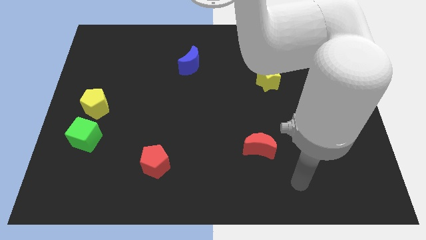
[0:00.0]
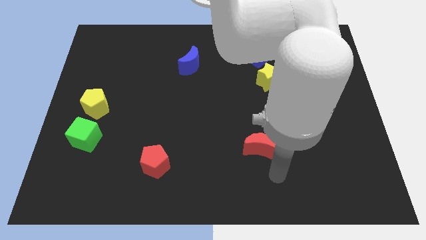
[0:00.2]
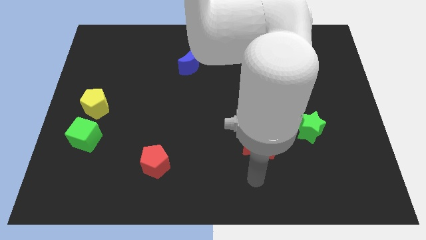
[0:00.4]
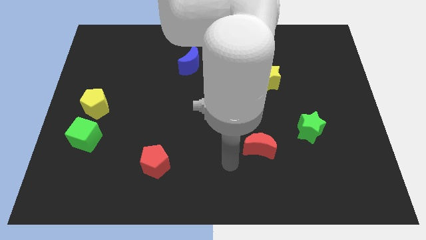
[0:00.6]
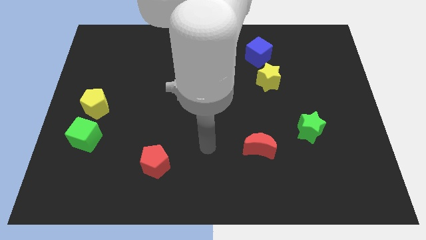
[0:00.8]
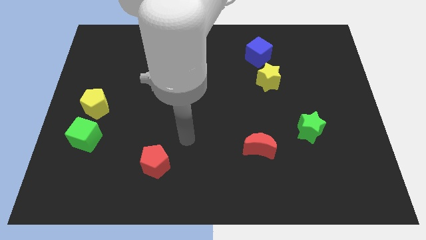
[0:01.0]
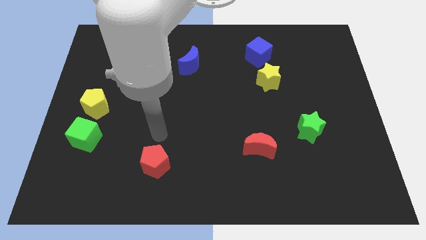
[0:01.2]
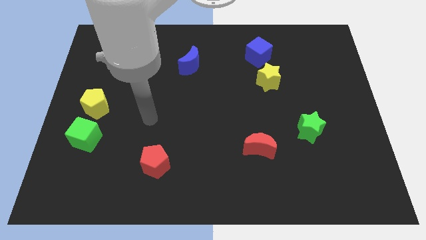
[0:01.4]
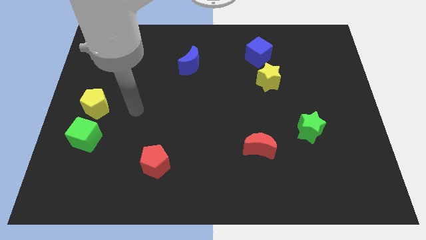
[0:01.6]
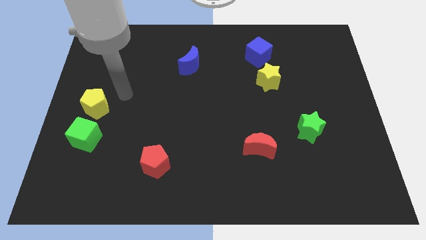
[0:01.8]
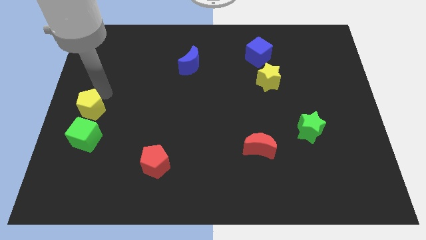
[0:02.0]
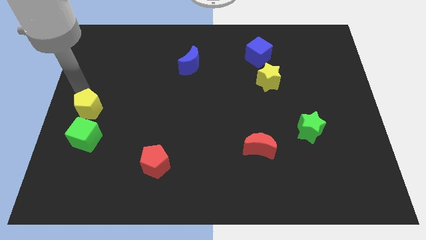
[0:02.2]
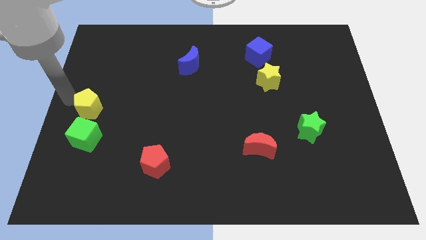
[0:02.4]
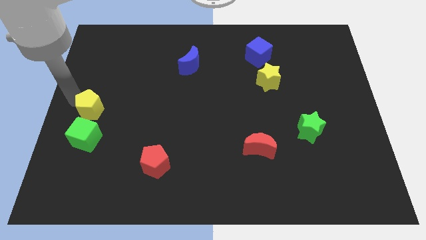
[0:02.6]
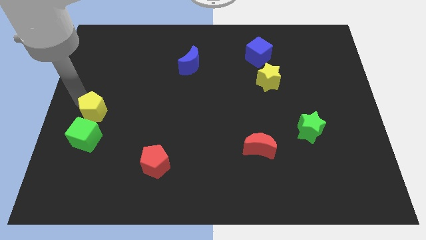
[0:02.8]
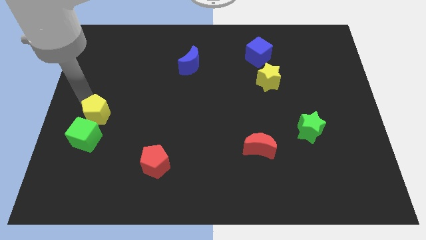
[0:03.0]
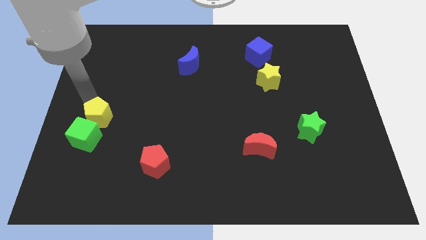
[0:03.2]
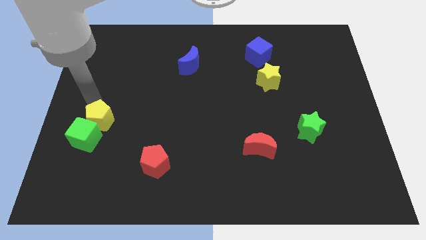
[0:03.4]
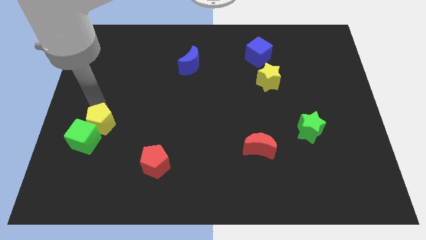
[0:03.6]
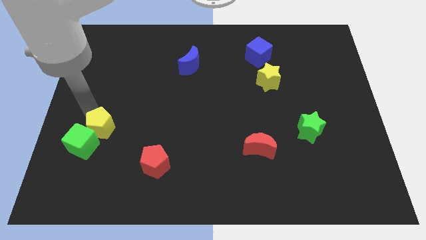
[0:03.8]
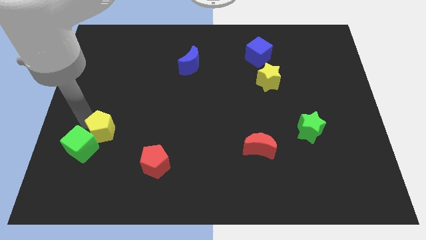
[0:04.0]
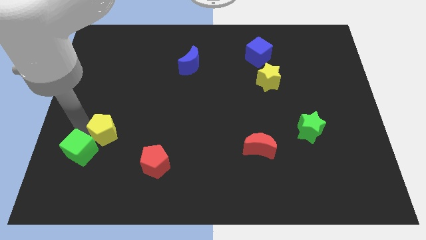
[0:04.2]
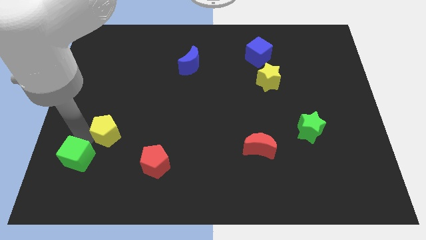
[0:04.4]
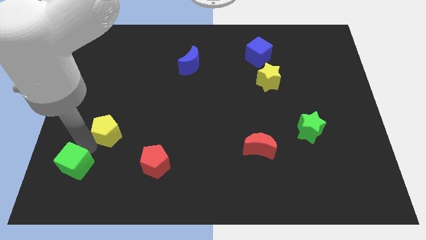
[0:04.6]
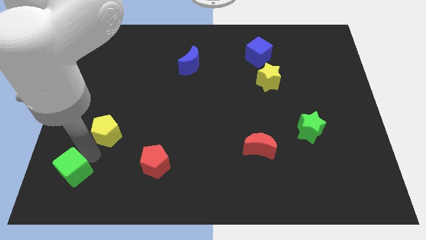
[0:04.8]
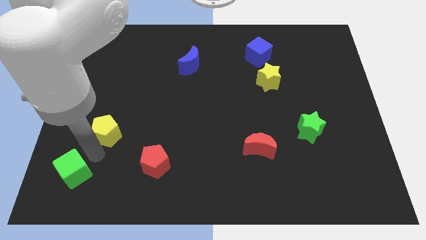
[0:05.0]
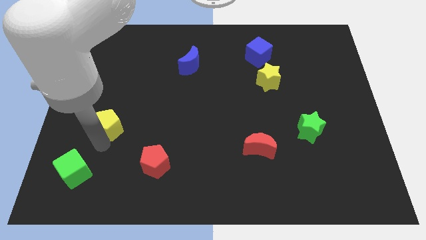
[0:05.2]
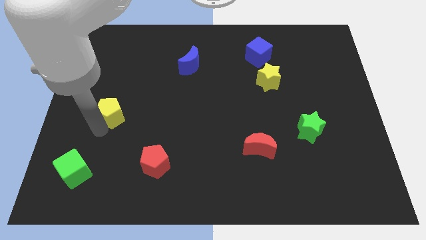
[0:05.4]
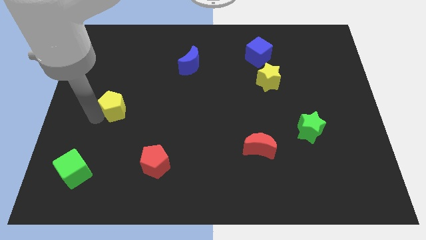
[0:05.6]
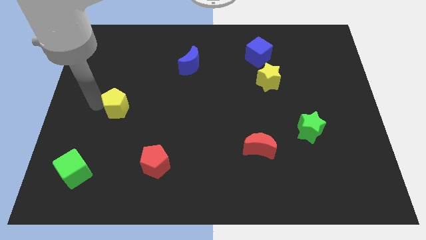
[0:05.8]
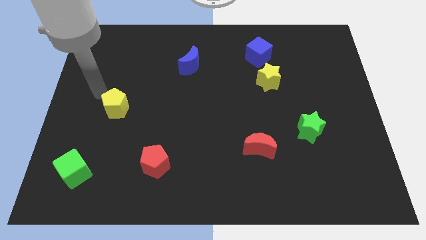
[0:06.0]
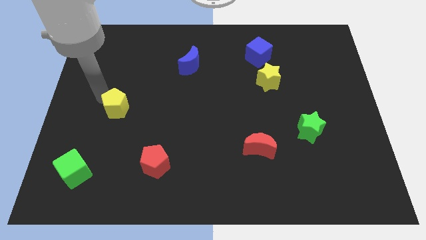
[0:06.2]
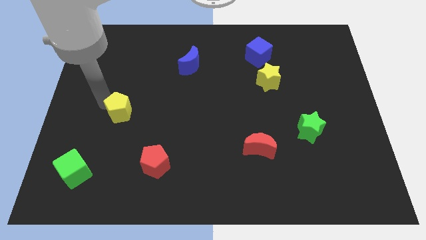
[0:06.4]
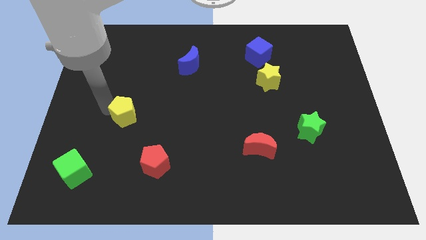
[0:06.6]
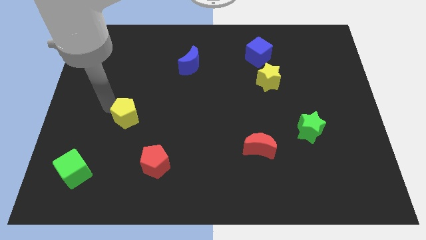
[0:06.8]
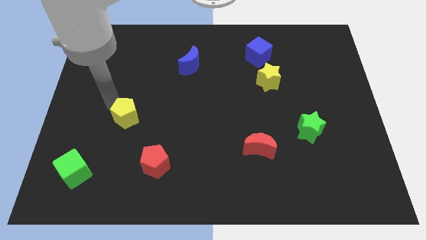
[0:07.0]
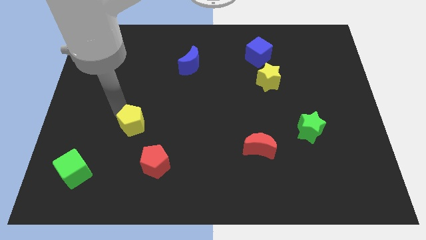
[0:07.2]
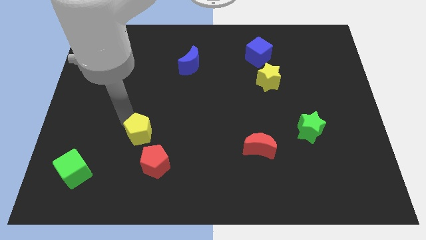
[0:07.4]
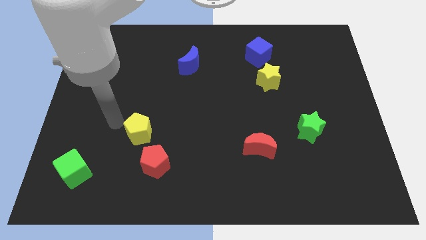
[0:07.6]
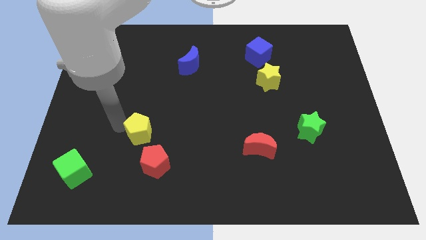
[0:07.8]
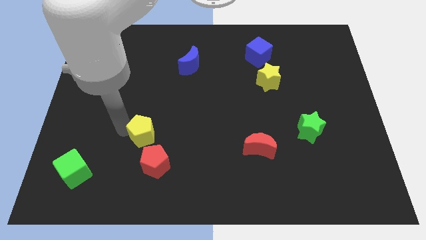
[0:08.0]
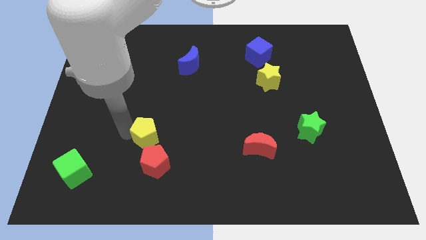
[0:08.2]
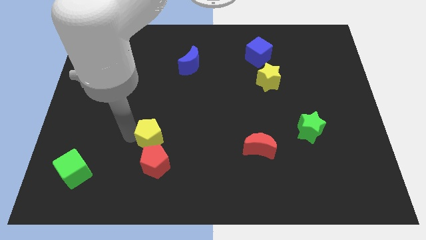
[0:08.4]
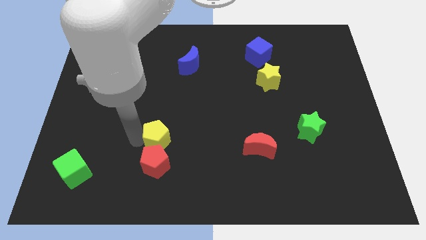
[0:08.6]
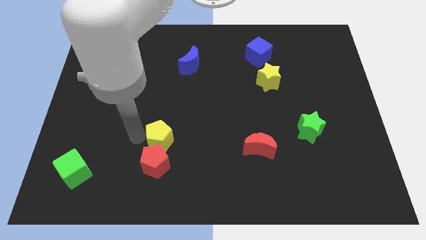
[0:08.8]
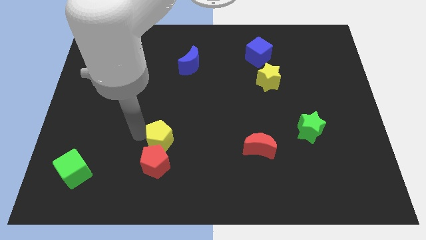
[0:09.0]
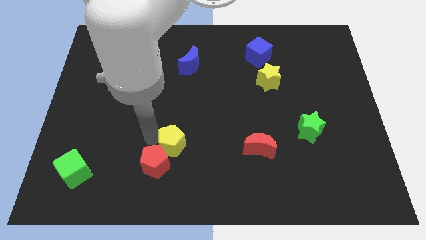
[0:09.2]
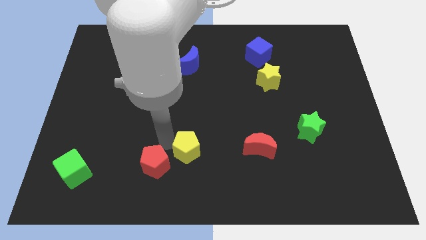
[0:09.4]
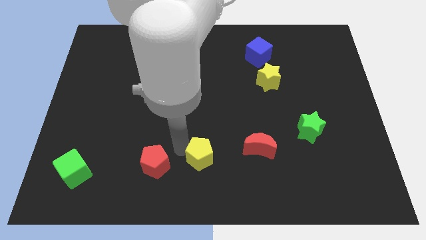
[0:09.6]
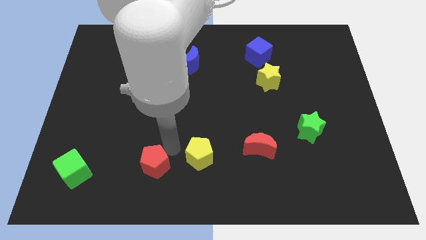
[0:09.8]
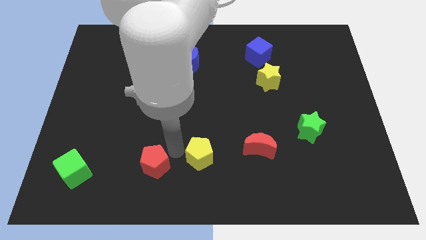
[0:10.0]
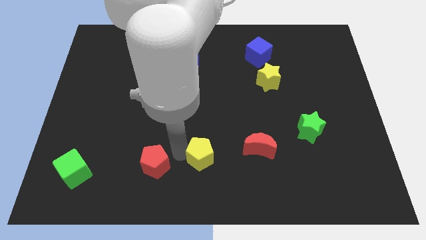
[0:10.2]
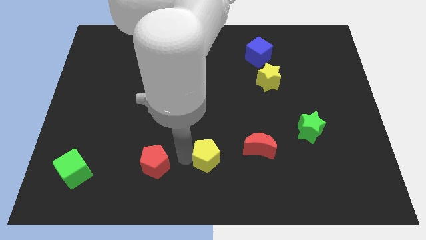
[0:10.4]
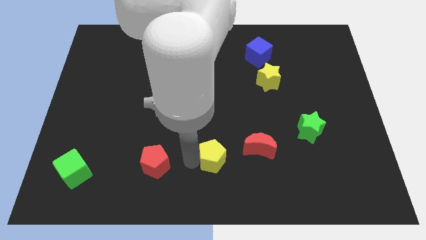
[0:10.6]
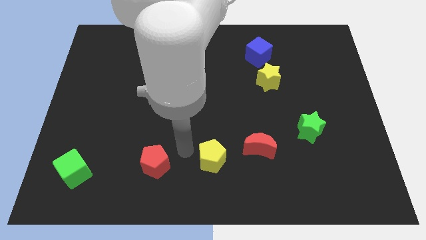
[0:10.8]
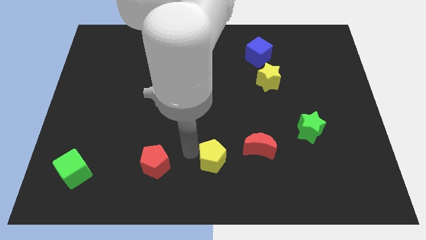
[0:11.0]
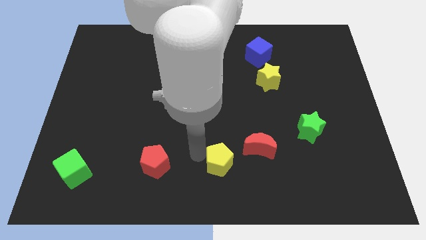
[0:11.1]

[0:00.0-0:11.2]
move the yellow pentagon diagonally down and to the left of the red moon

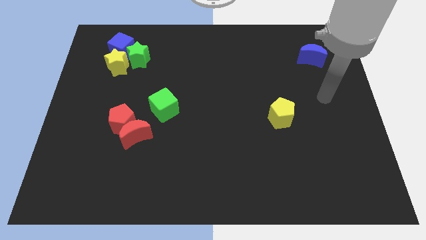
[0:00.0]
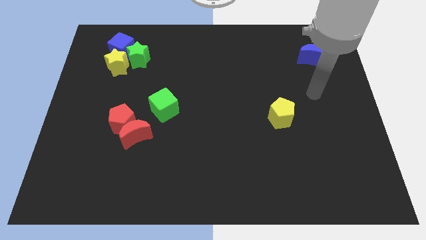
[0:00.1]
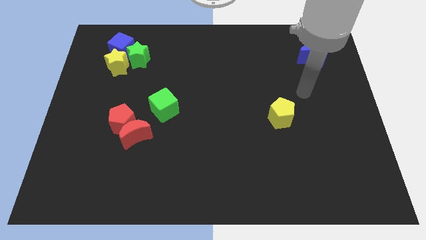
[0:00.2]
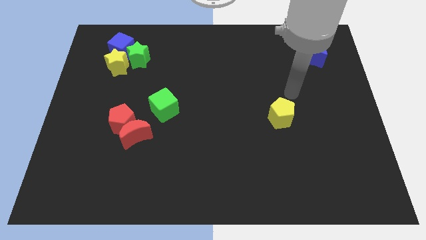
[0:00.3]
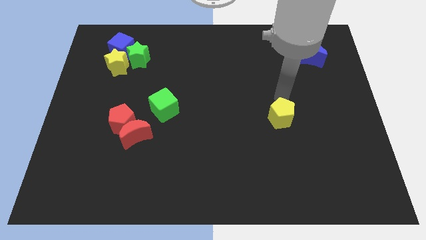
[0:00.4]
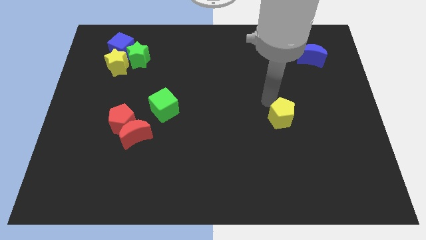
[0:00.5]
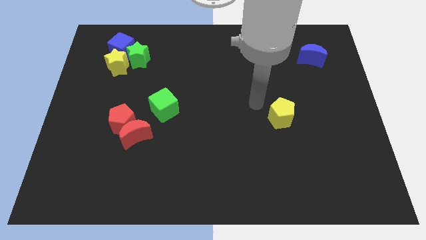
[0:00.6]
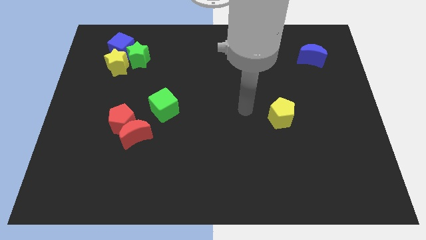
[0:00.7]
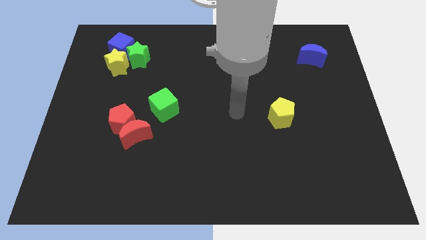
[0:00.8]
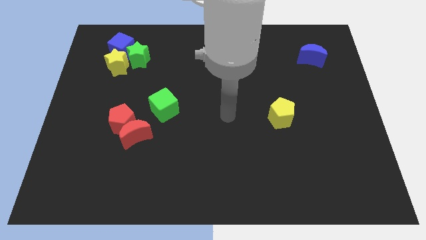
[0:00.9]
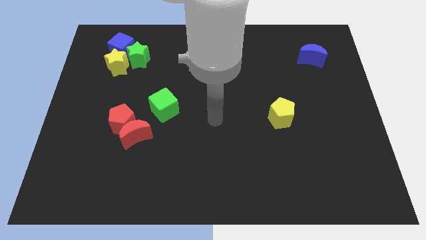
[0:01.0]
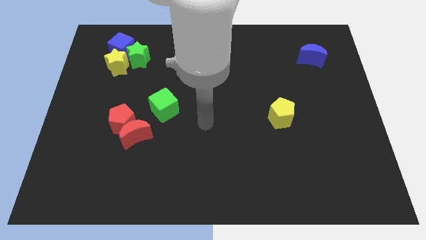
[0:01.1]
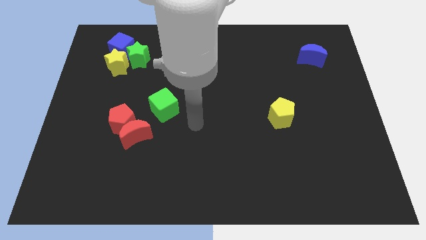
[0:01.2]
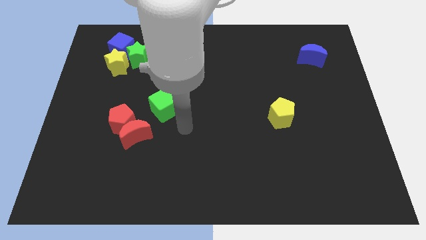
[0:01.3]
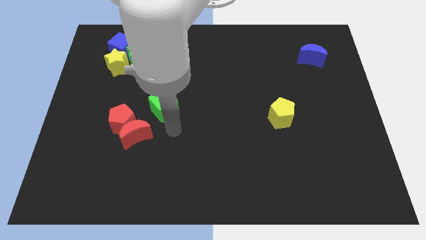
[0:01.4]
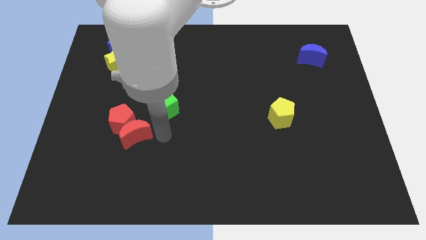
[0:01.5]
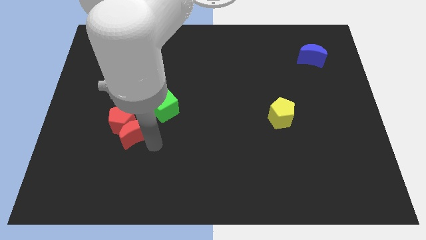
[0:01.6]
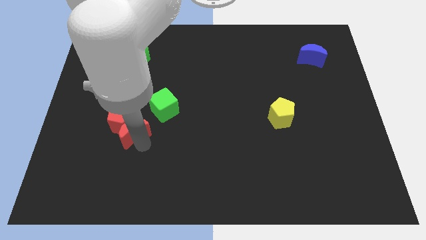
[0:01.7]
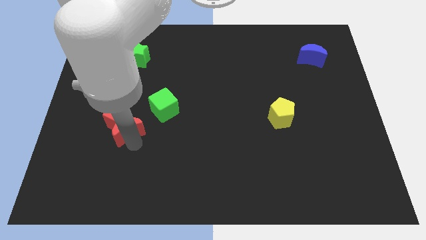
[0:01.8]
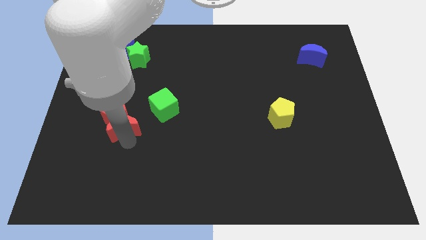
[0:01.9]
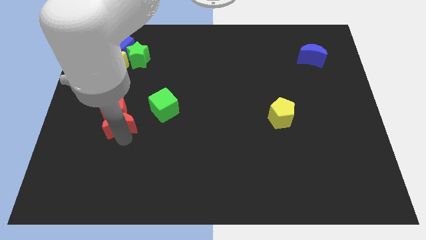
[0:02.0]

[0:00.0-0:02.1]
move the red pentagon to the bottom side of the yellow star
